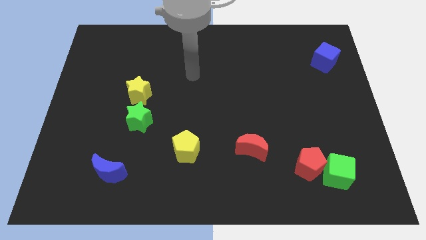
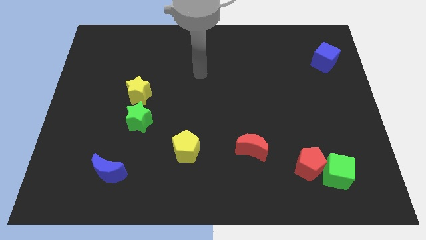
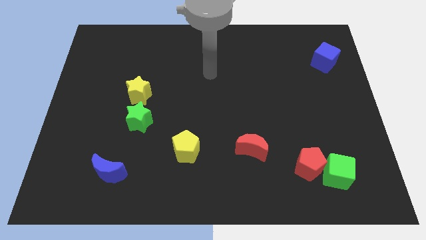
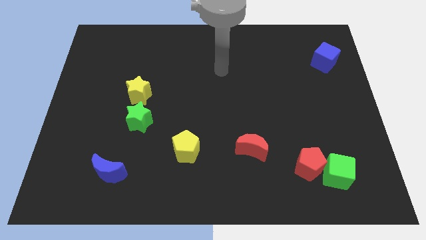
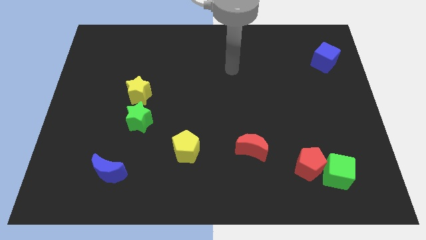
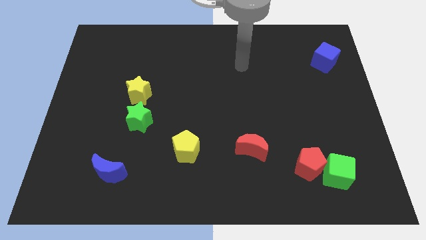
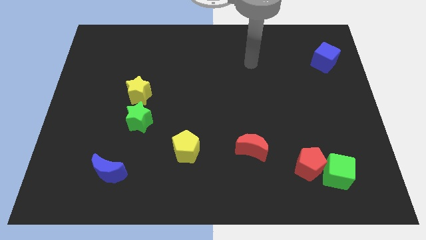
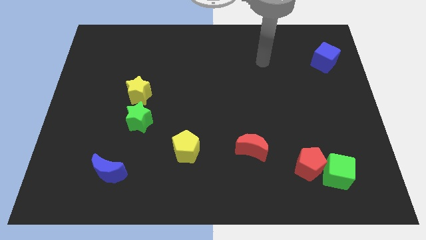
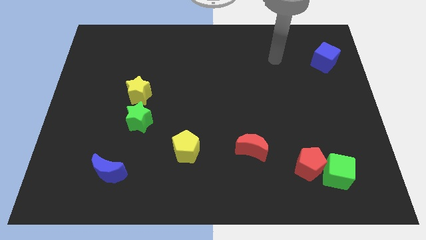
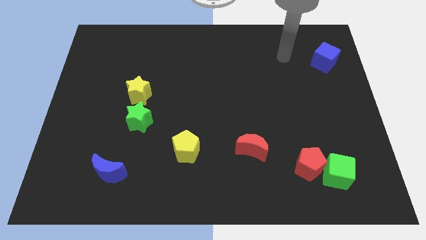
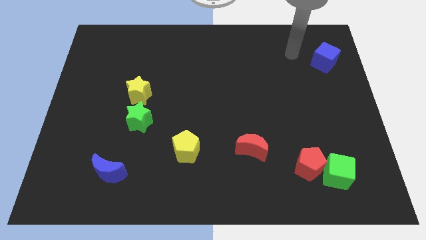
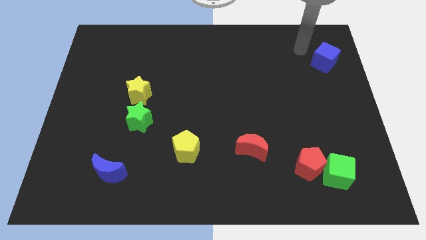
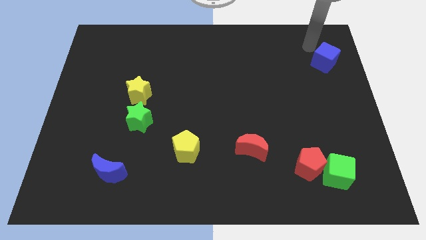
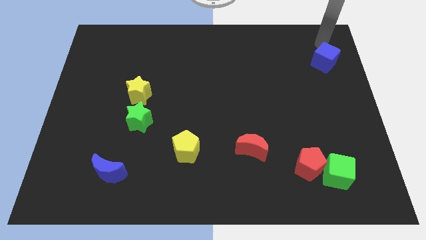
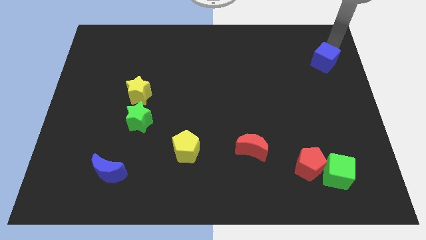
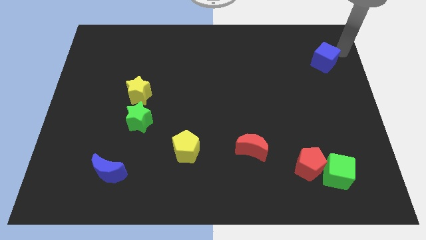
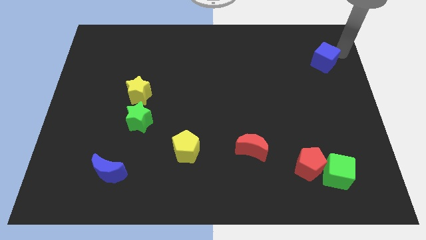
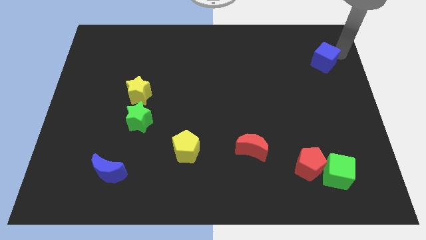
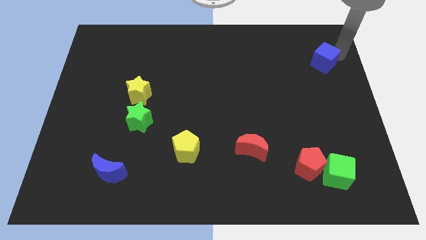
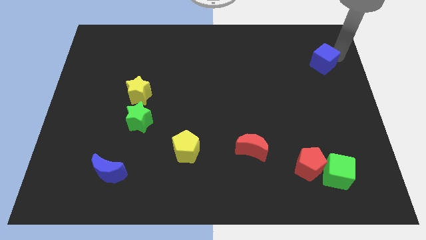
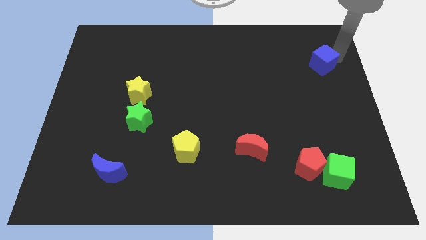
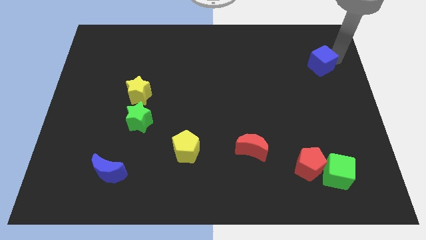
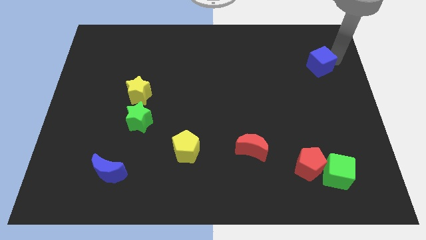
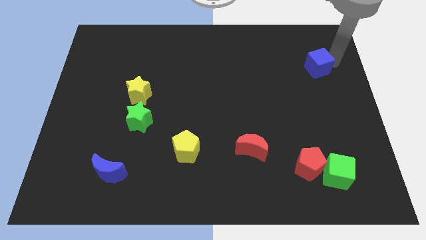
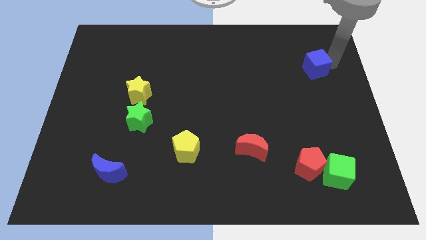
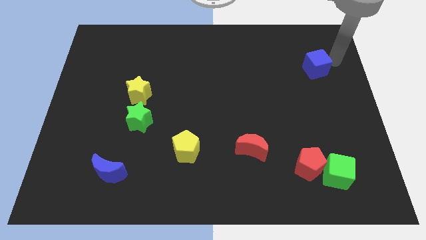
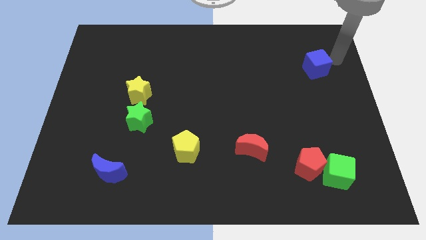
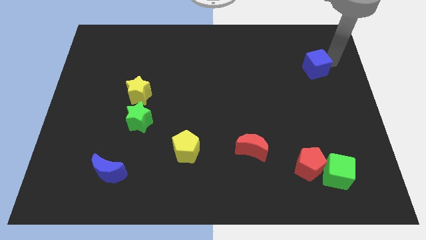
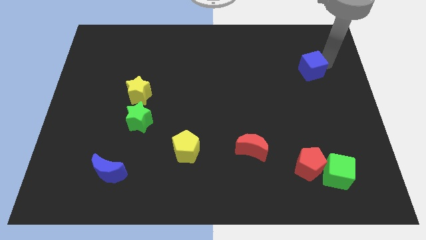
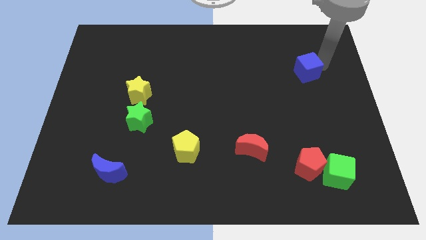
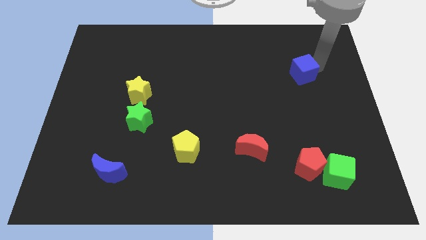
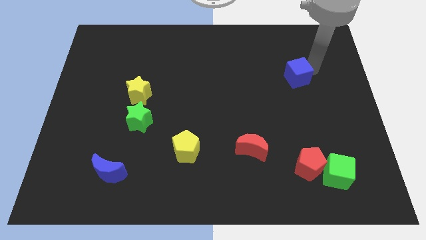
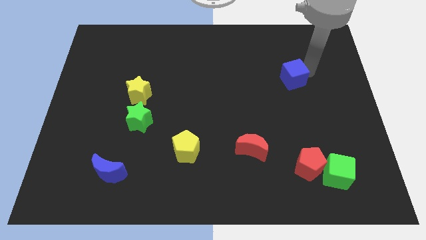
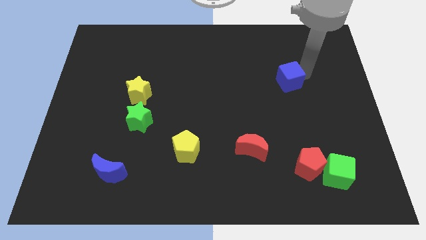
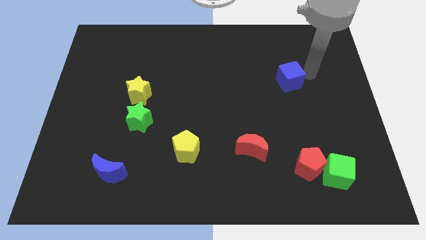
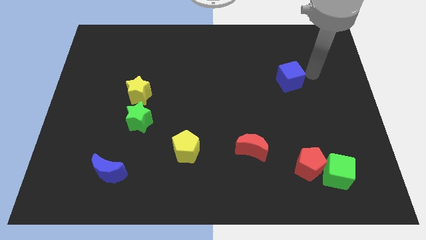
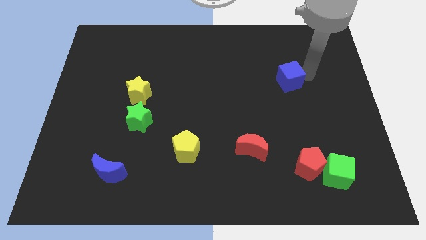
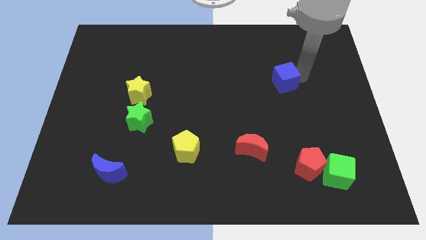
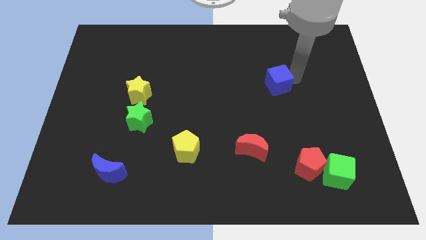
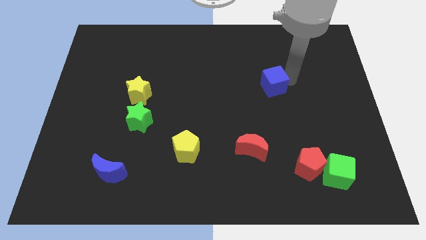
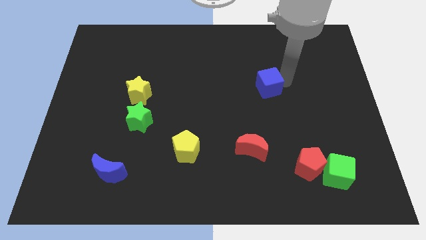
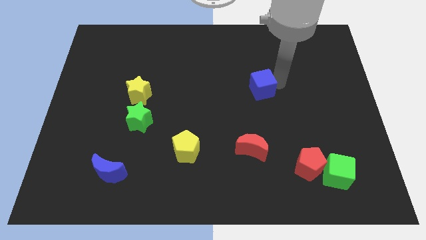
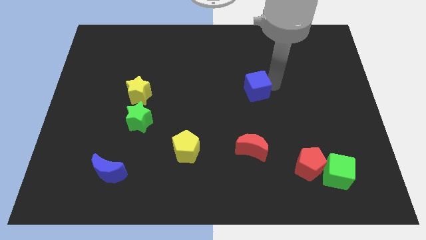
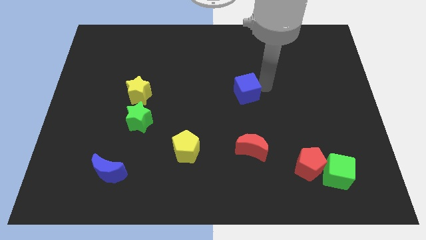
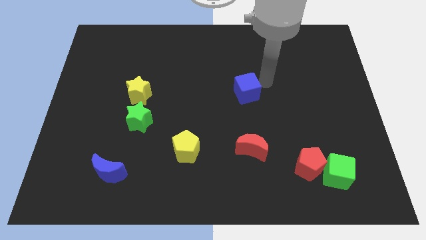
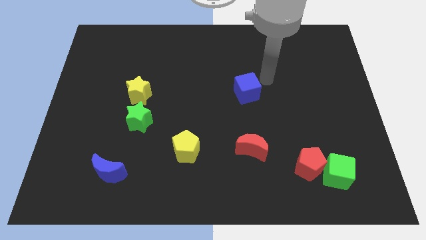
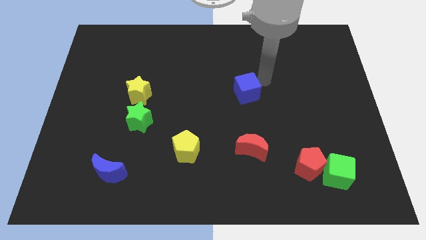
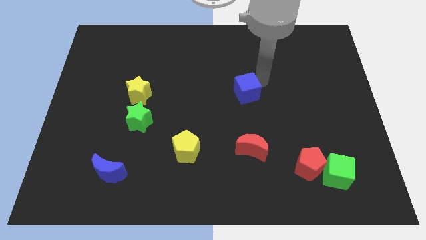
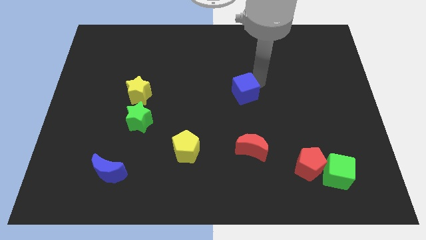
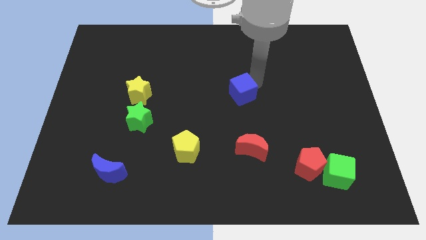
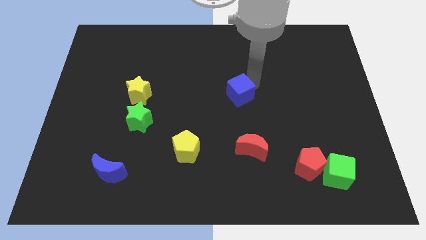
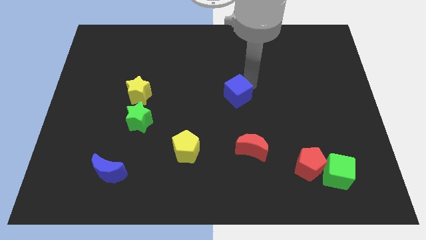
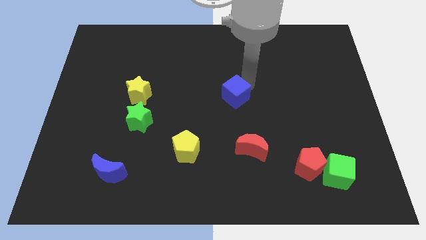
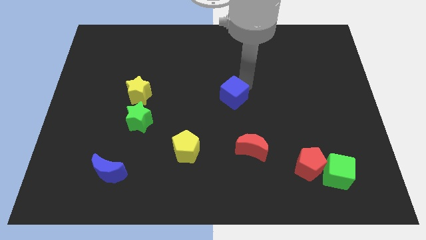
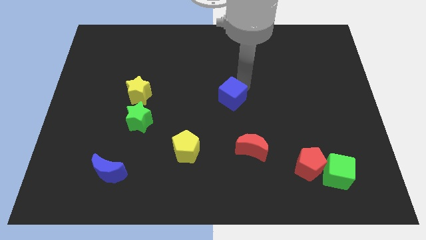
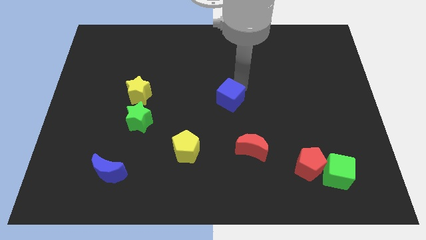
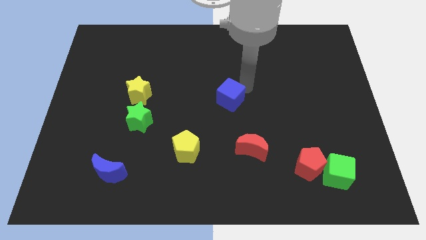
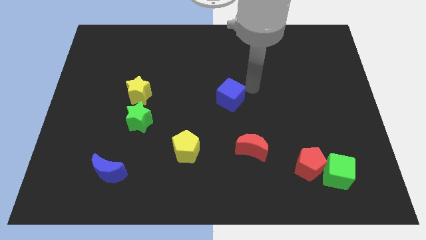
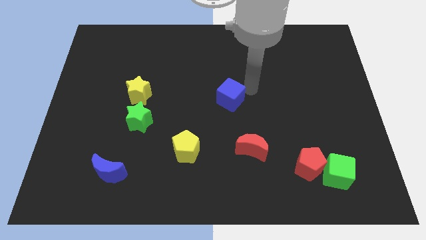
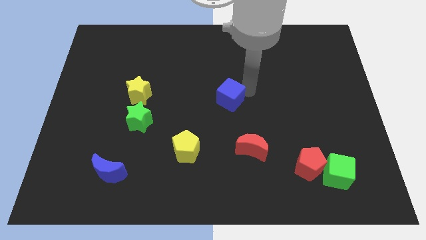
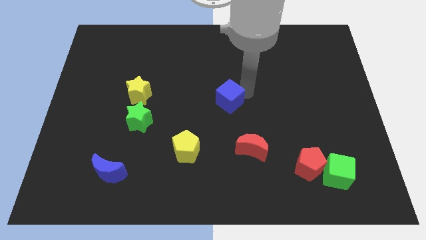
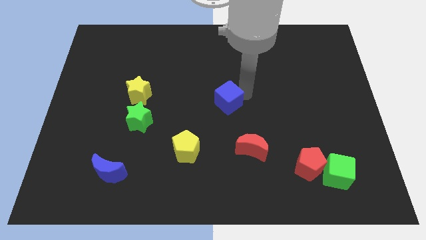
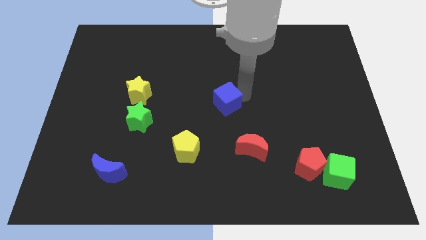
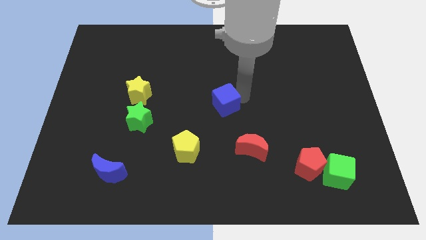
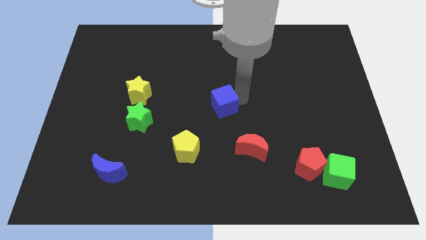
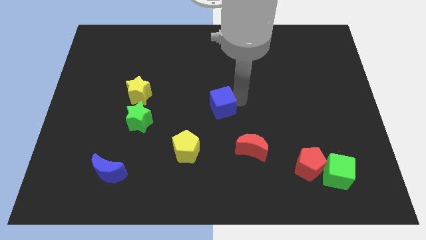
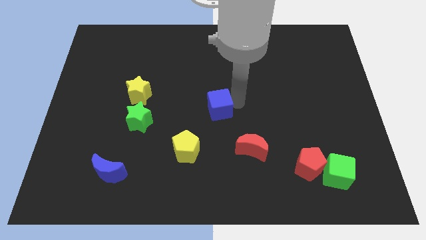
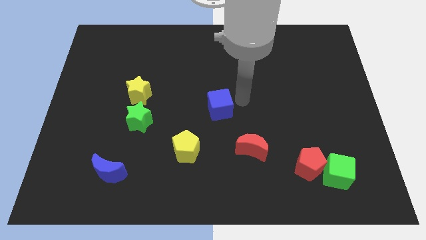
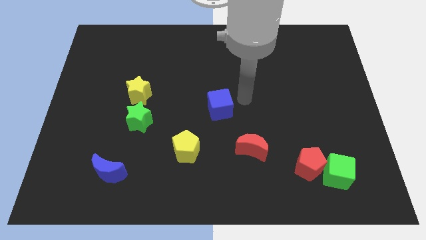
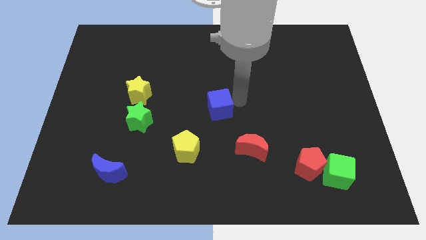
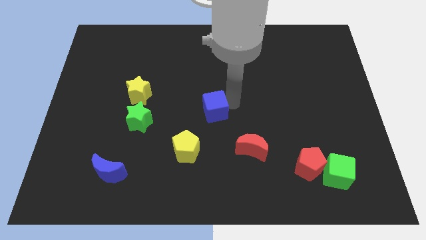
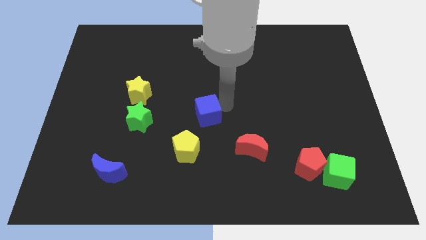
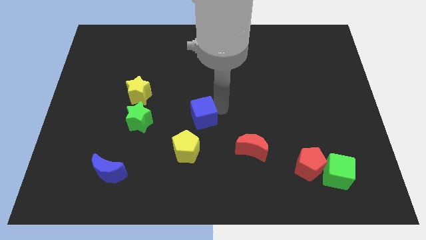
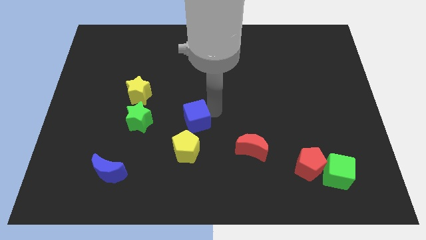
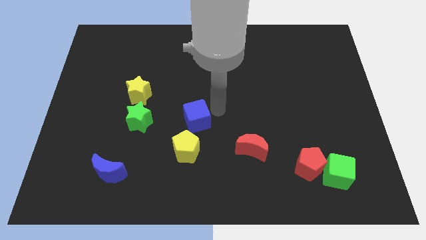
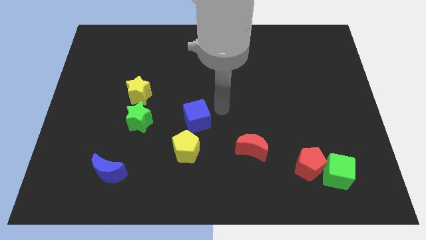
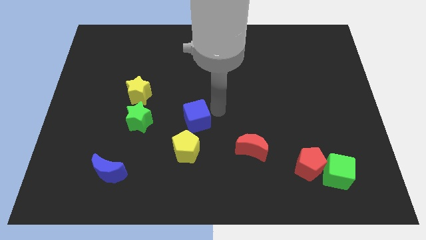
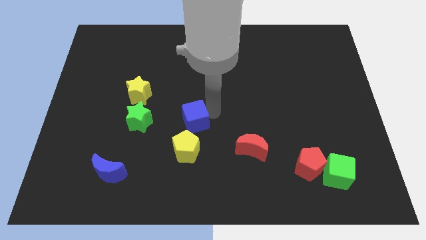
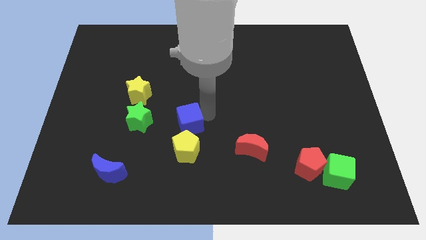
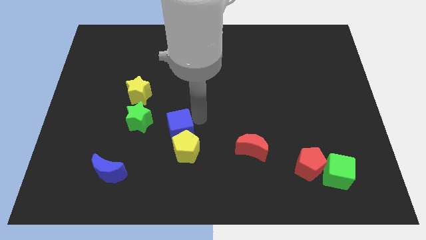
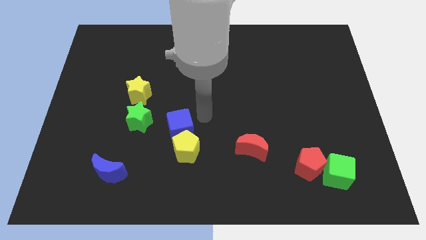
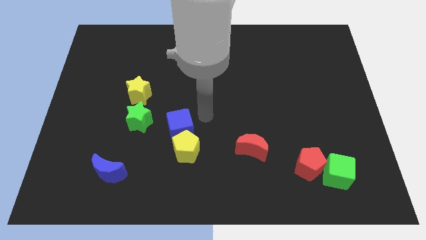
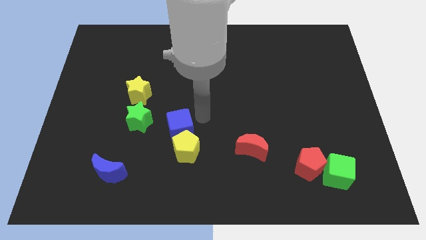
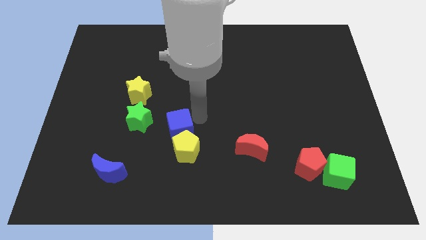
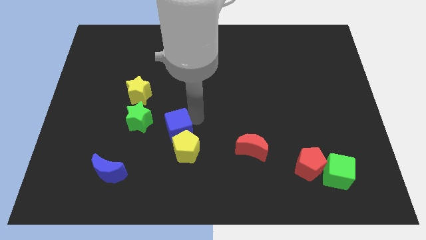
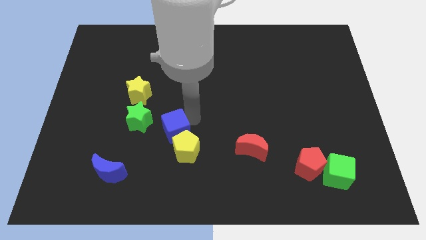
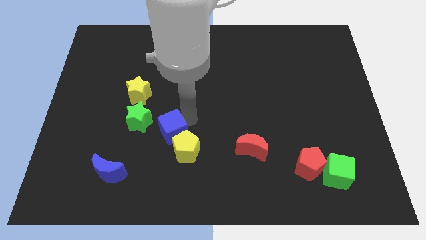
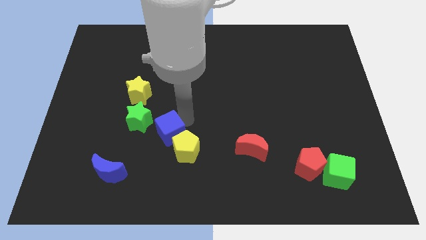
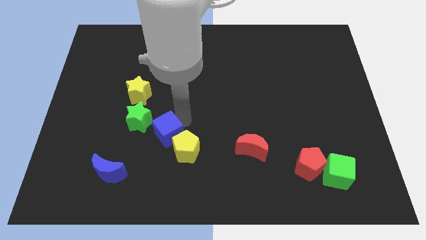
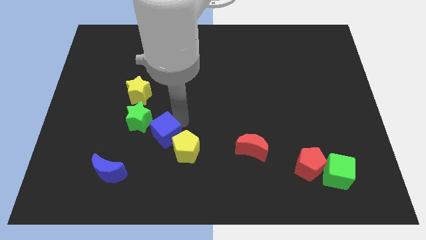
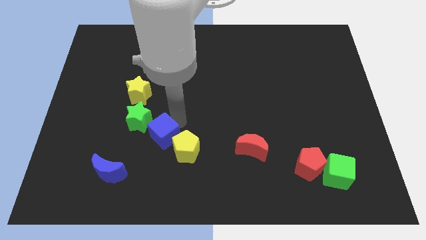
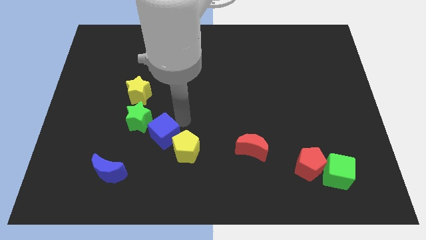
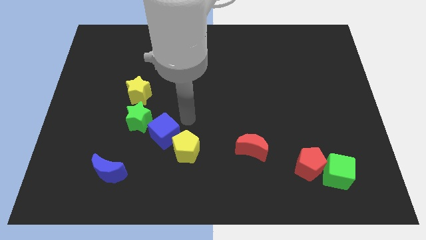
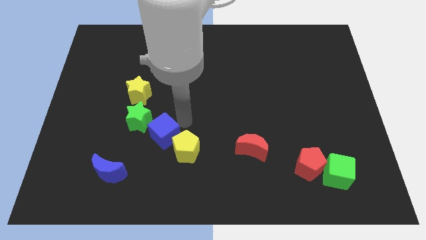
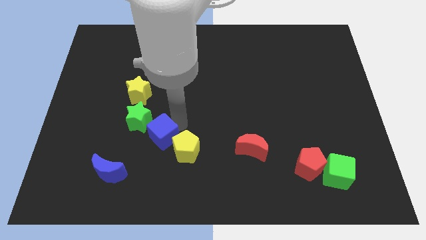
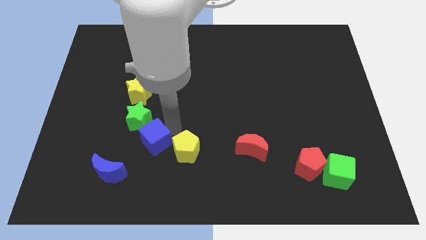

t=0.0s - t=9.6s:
slide the blue cube to the top right side of the blue moon
